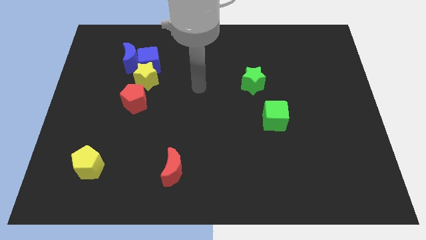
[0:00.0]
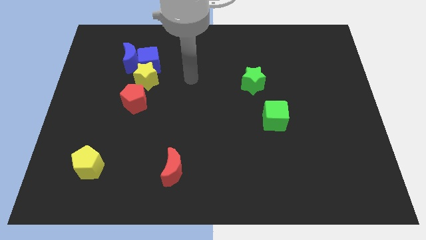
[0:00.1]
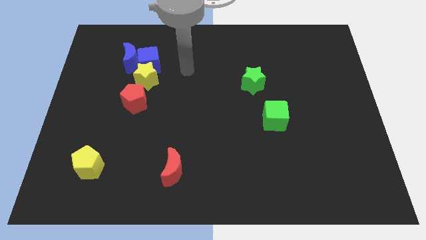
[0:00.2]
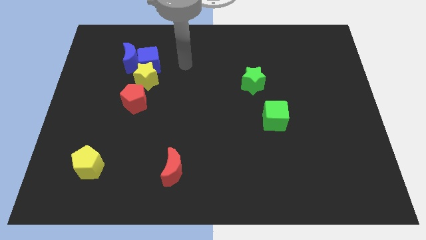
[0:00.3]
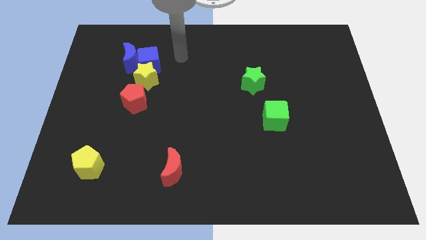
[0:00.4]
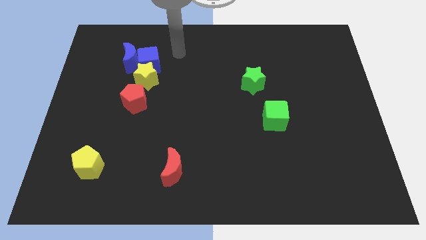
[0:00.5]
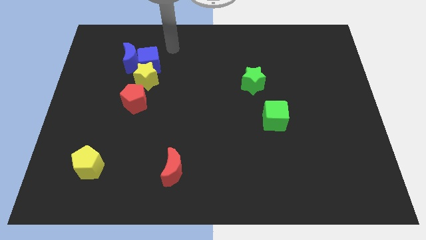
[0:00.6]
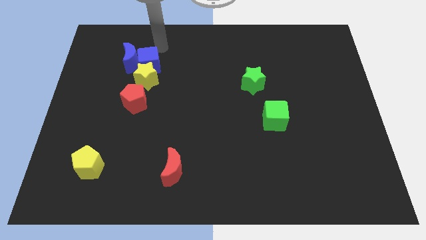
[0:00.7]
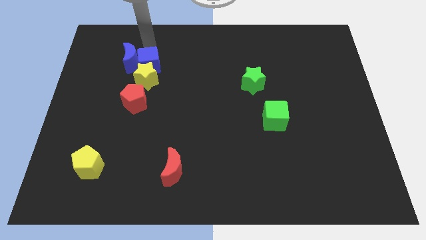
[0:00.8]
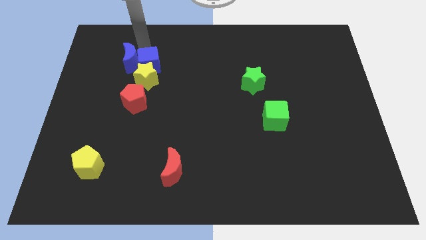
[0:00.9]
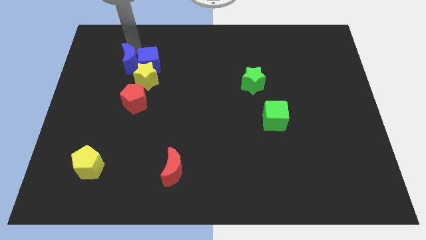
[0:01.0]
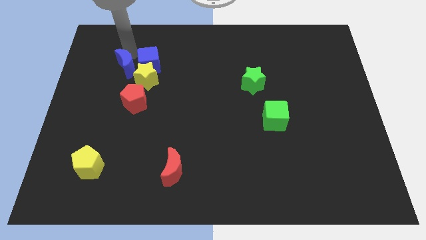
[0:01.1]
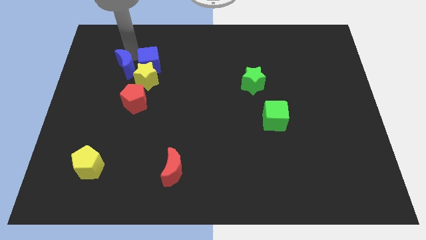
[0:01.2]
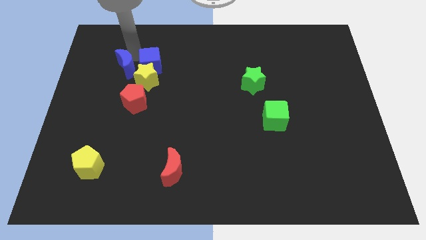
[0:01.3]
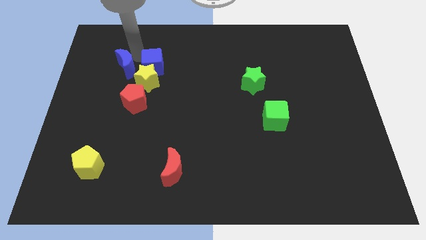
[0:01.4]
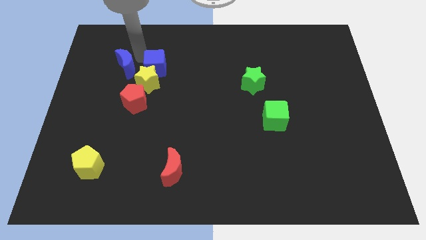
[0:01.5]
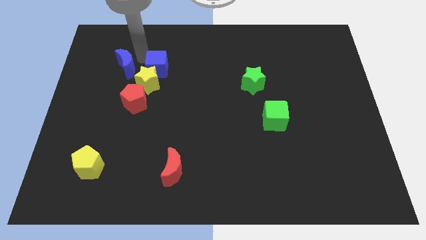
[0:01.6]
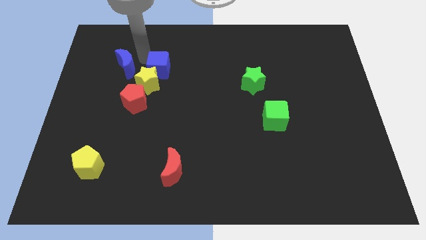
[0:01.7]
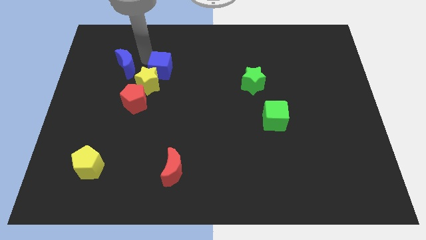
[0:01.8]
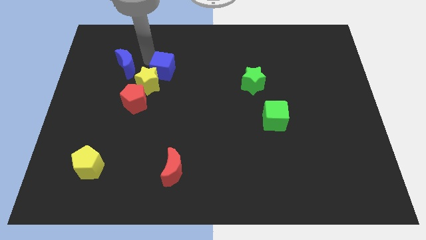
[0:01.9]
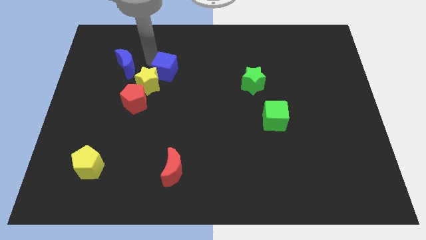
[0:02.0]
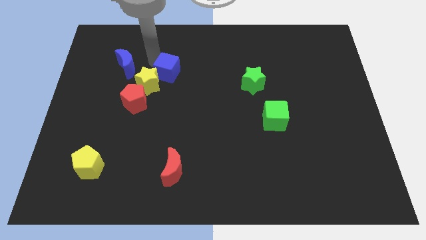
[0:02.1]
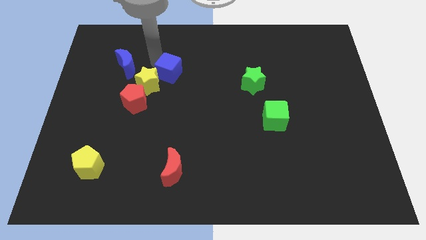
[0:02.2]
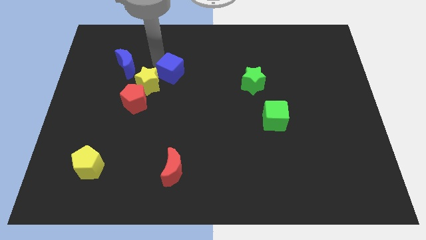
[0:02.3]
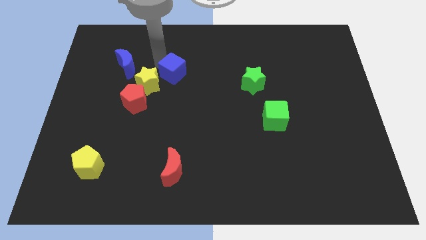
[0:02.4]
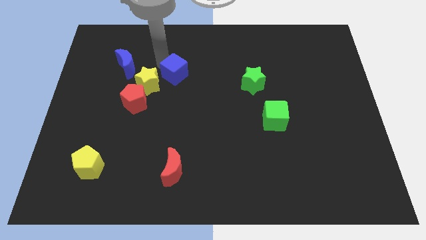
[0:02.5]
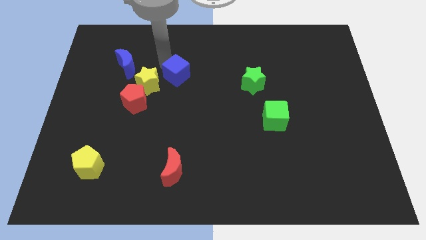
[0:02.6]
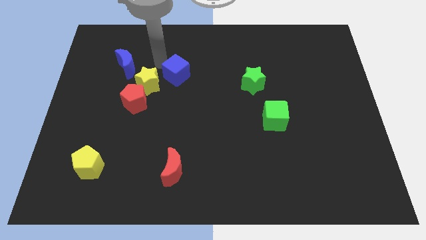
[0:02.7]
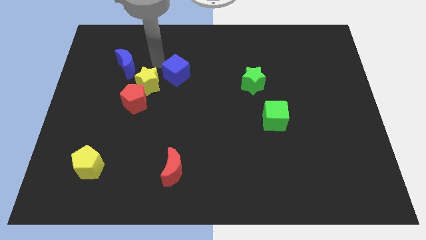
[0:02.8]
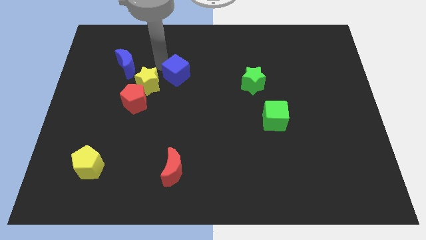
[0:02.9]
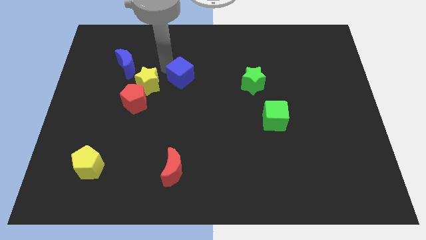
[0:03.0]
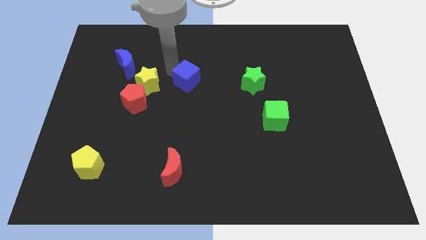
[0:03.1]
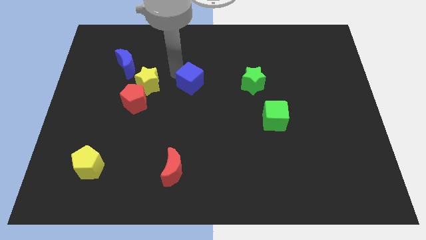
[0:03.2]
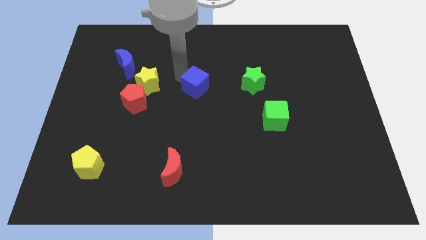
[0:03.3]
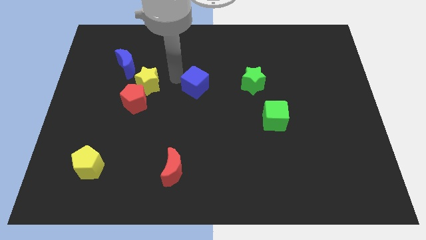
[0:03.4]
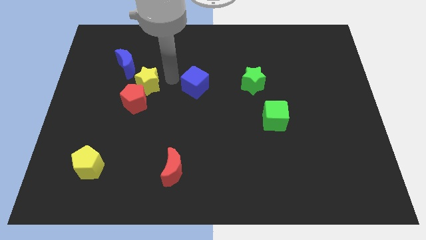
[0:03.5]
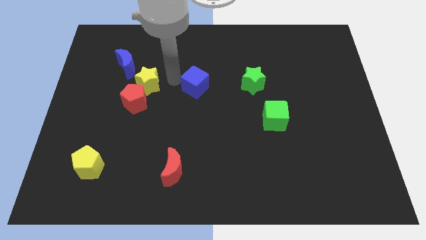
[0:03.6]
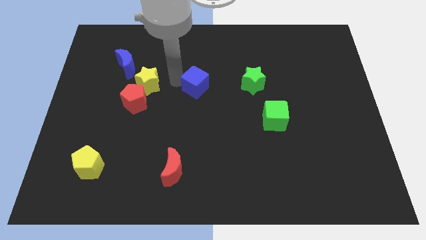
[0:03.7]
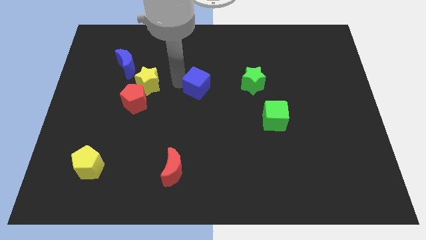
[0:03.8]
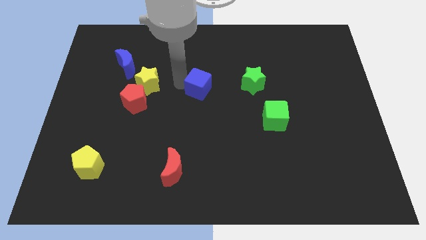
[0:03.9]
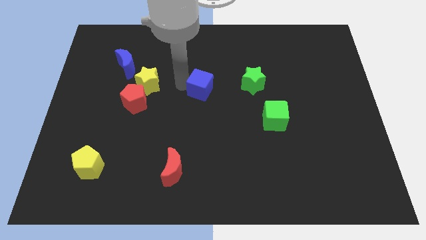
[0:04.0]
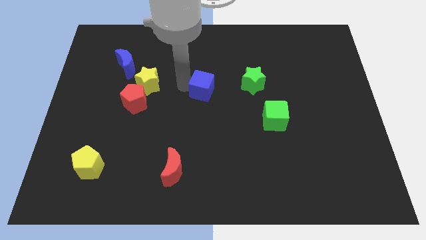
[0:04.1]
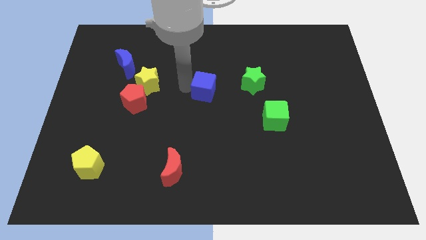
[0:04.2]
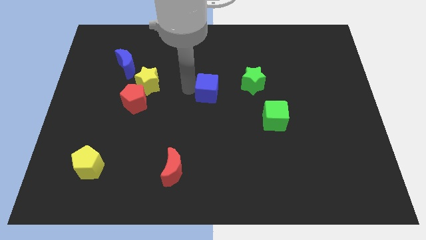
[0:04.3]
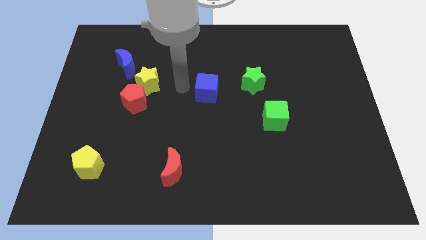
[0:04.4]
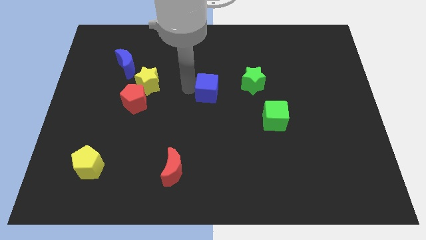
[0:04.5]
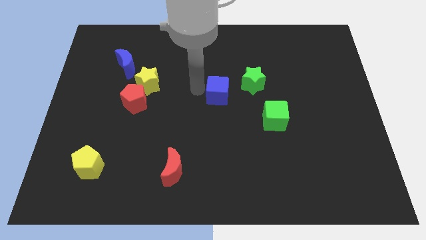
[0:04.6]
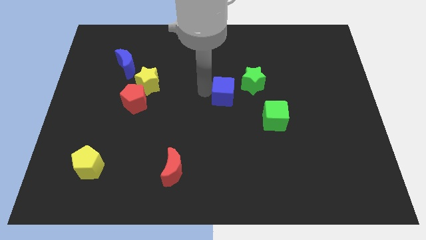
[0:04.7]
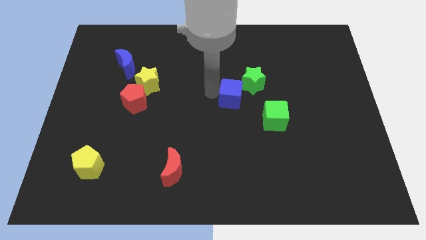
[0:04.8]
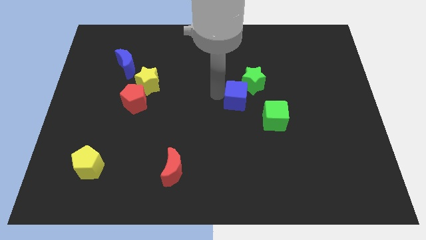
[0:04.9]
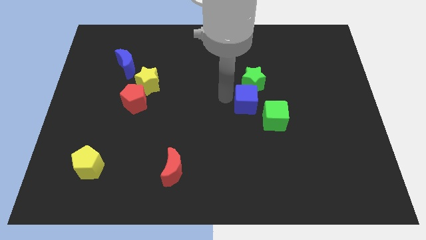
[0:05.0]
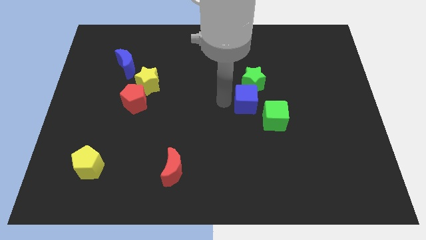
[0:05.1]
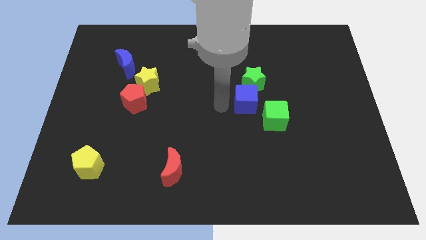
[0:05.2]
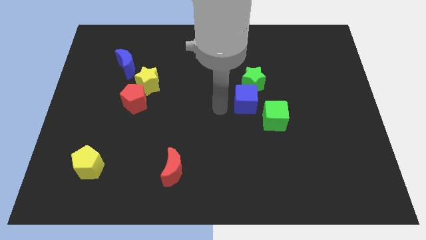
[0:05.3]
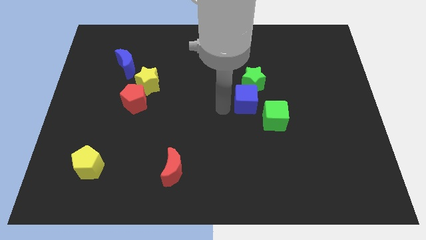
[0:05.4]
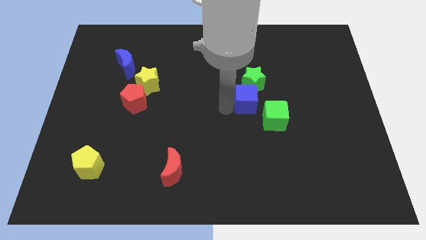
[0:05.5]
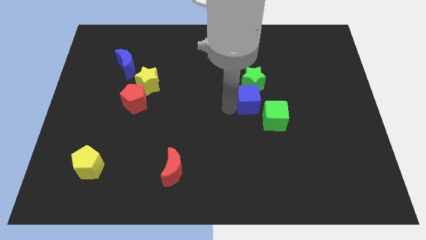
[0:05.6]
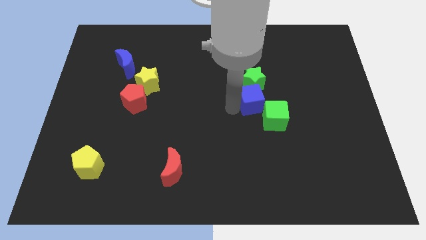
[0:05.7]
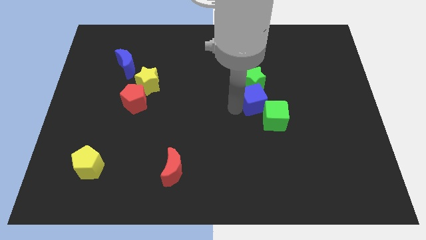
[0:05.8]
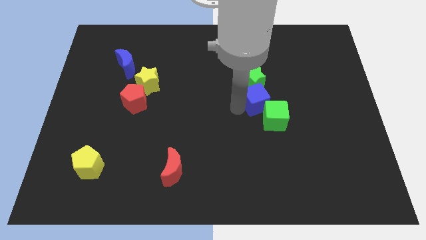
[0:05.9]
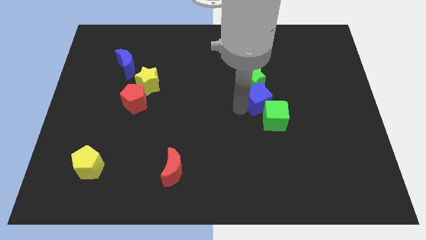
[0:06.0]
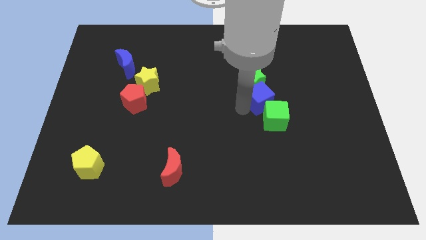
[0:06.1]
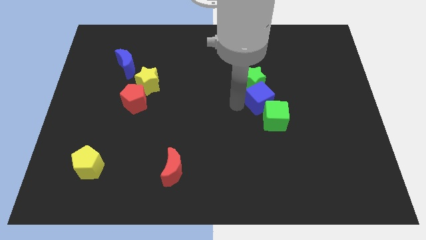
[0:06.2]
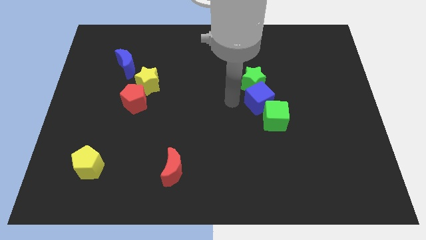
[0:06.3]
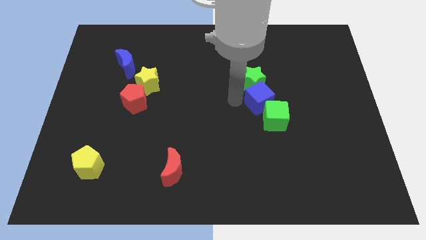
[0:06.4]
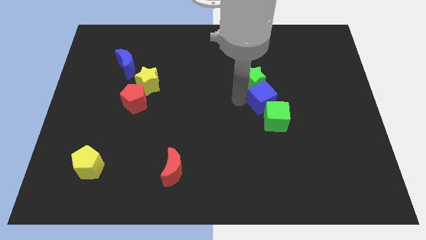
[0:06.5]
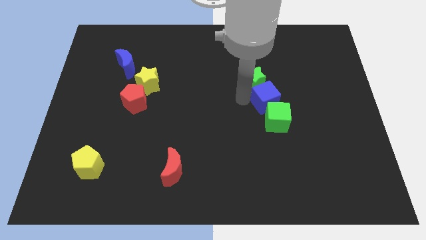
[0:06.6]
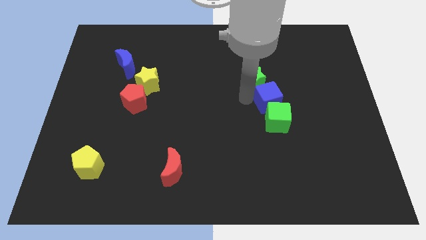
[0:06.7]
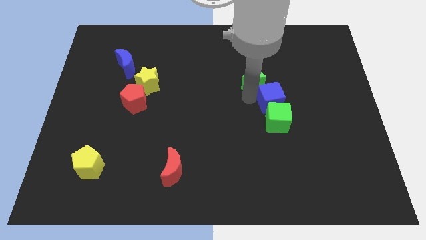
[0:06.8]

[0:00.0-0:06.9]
move the blue cube to the top right side of the green cube

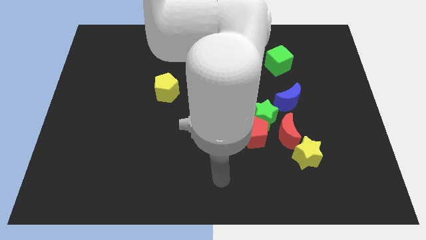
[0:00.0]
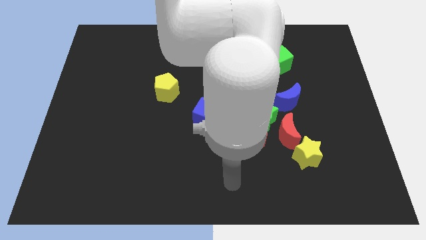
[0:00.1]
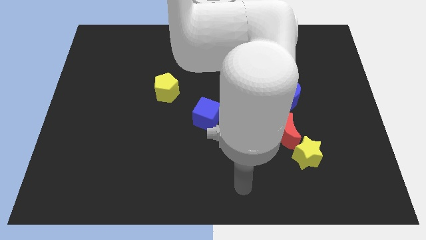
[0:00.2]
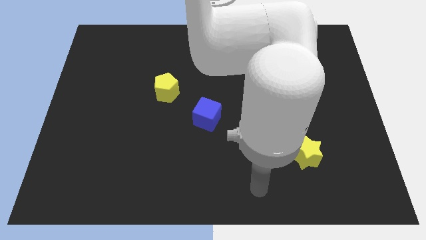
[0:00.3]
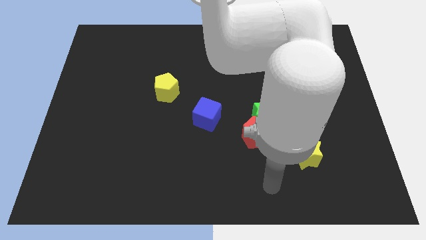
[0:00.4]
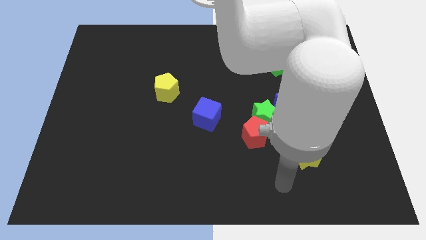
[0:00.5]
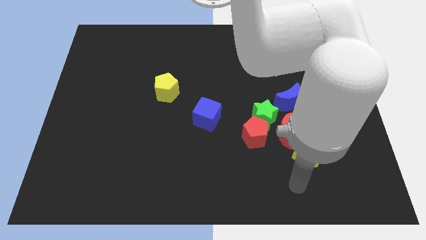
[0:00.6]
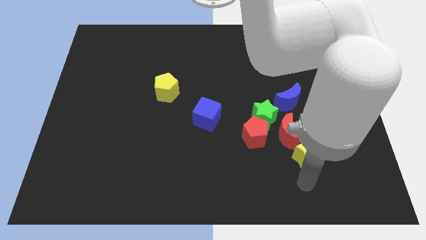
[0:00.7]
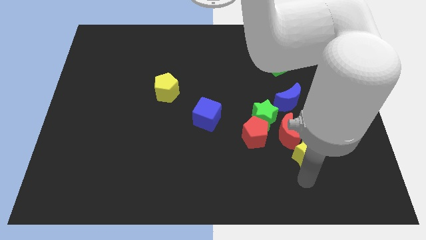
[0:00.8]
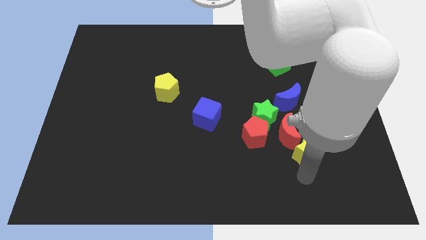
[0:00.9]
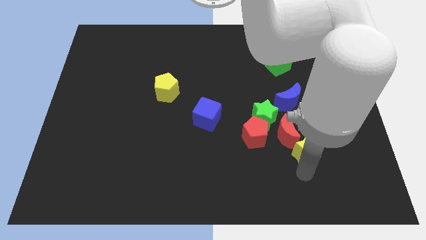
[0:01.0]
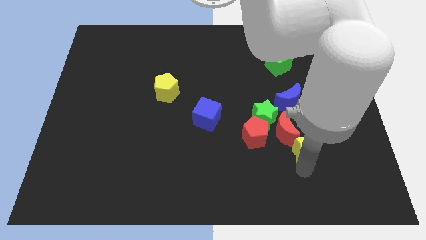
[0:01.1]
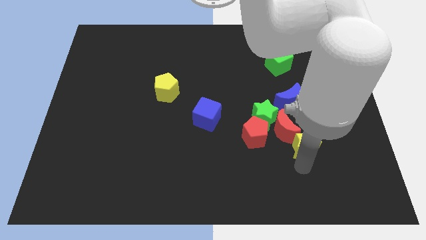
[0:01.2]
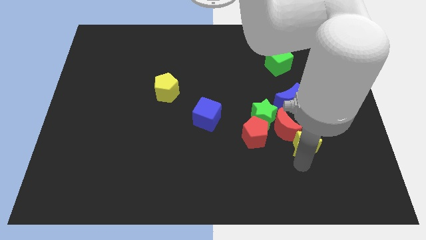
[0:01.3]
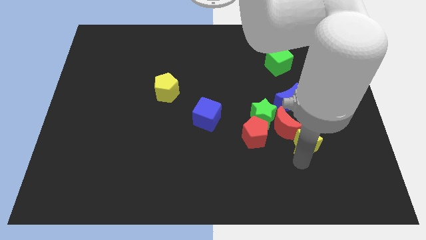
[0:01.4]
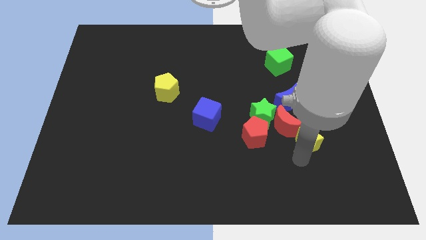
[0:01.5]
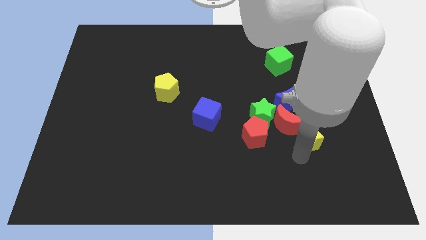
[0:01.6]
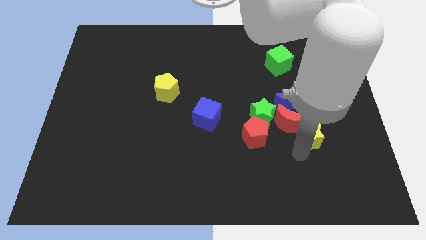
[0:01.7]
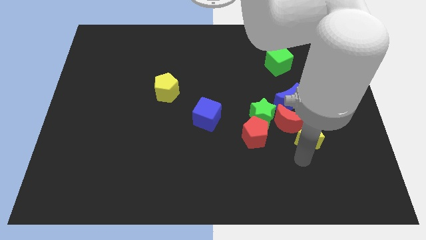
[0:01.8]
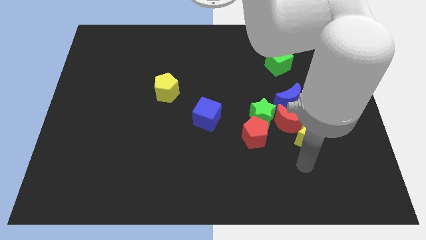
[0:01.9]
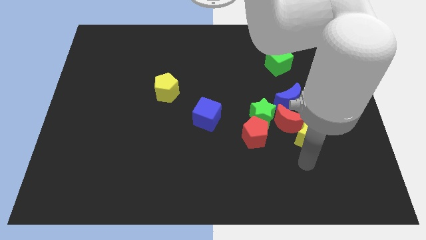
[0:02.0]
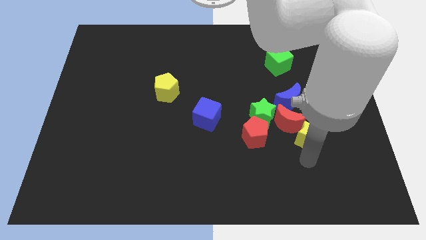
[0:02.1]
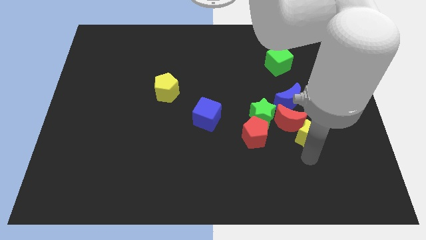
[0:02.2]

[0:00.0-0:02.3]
move the yellow star to the bottom right side of the blue moon
